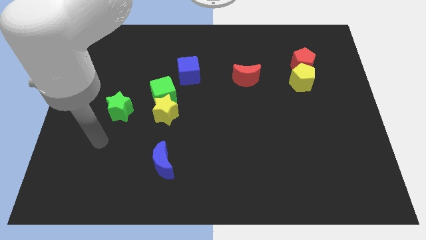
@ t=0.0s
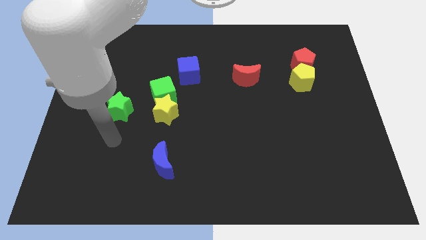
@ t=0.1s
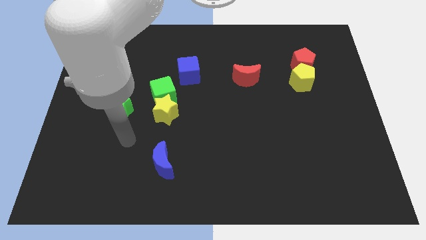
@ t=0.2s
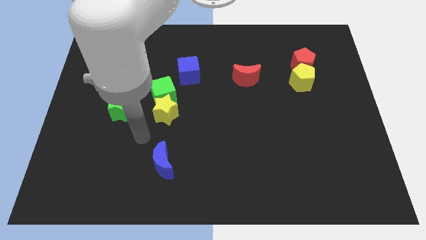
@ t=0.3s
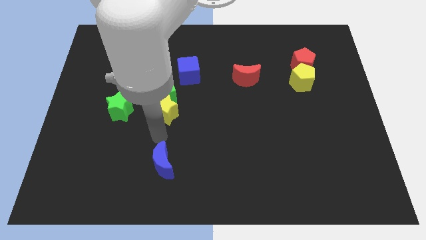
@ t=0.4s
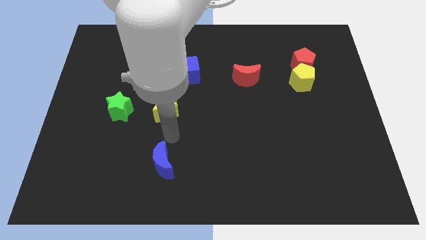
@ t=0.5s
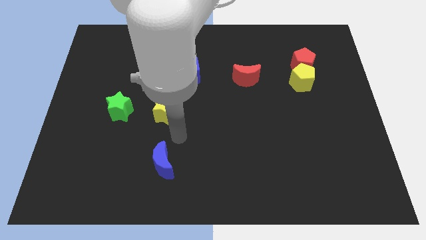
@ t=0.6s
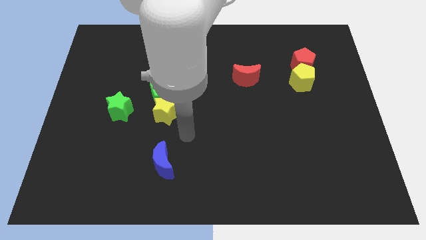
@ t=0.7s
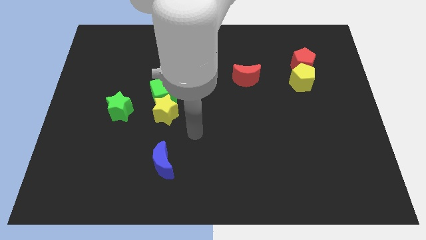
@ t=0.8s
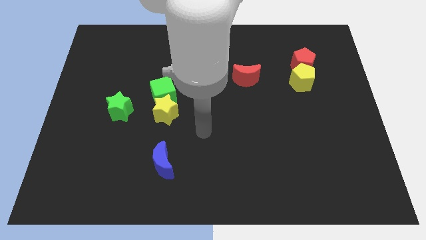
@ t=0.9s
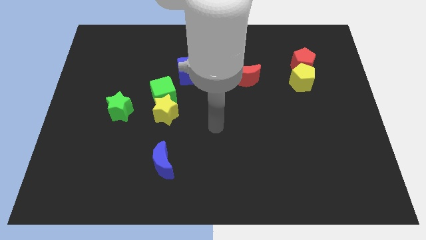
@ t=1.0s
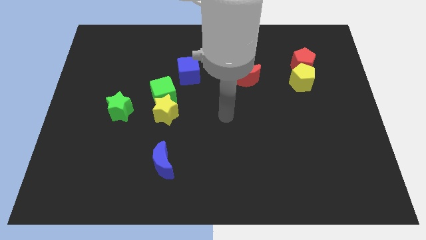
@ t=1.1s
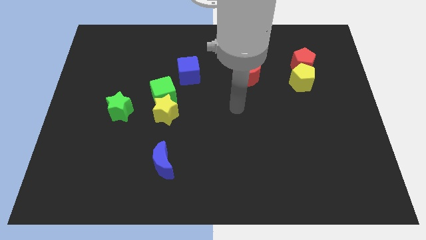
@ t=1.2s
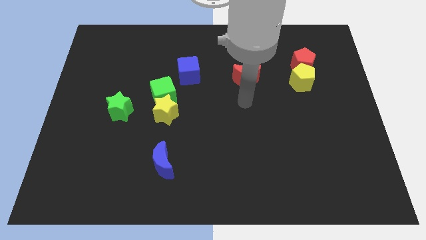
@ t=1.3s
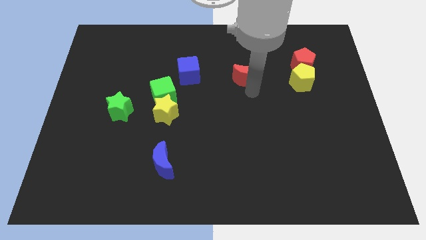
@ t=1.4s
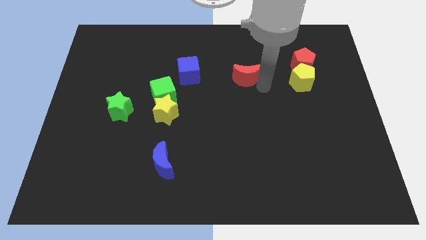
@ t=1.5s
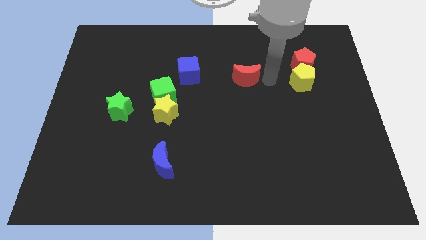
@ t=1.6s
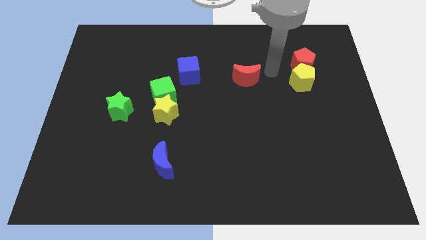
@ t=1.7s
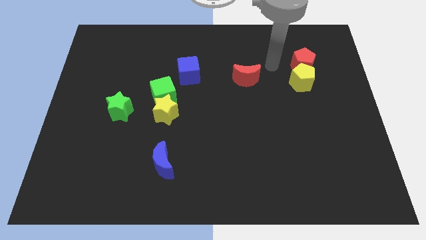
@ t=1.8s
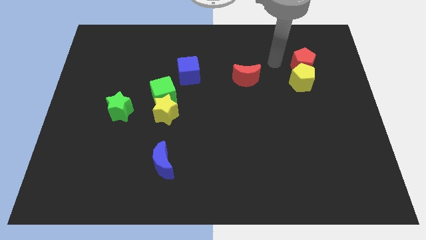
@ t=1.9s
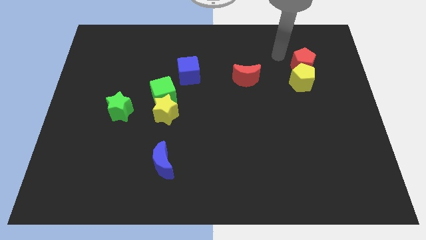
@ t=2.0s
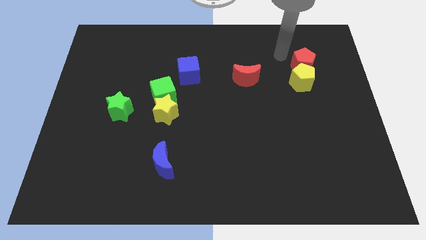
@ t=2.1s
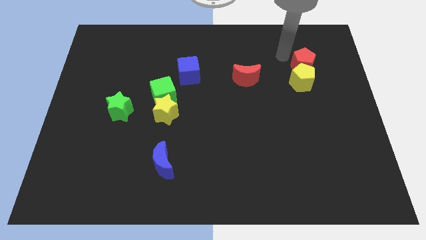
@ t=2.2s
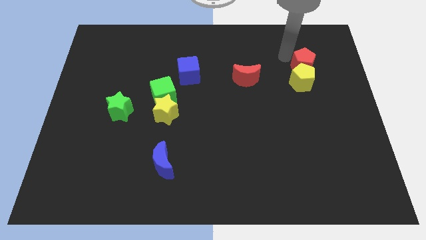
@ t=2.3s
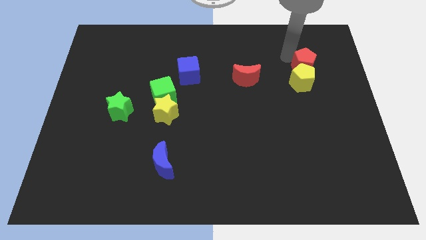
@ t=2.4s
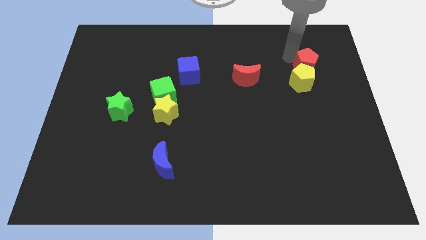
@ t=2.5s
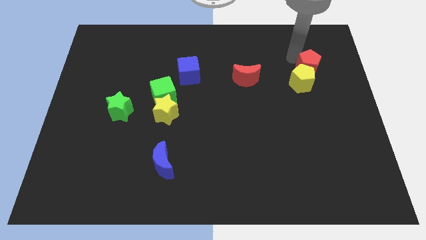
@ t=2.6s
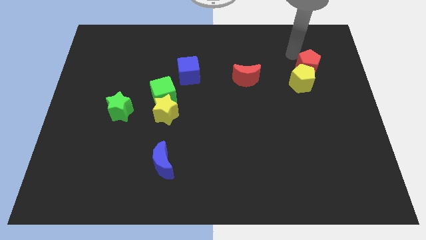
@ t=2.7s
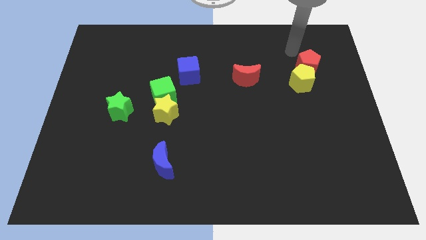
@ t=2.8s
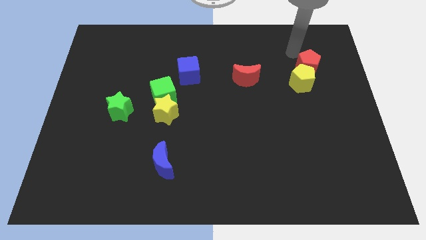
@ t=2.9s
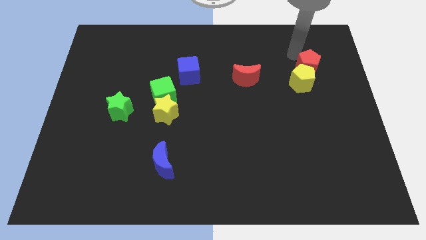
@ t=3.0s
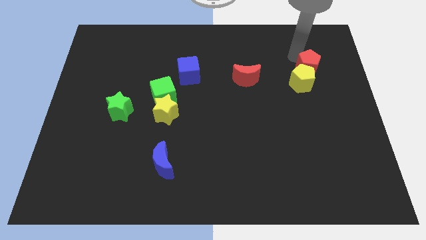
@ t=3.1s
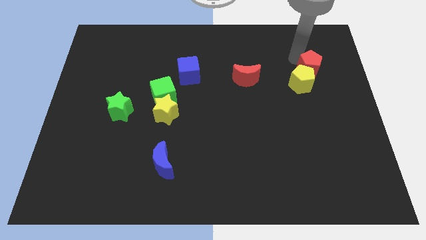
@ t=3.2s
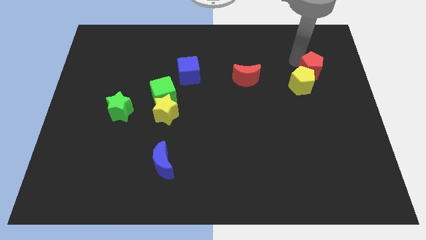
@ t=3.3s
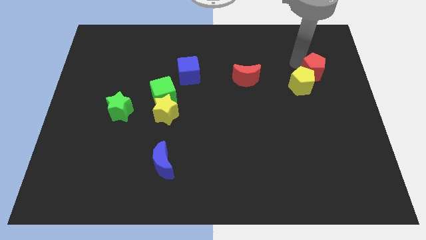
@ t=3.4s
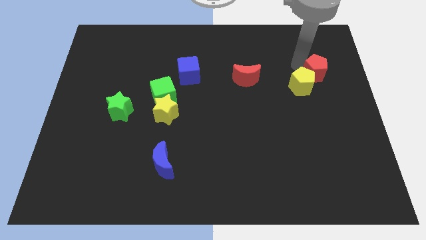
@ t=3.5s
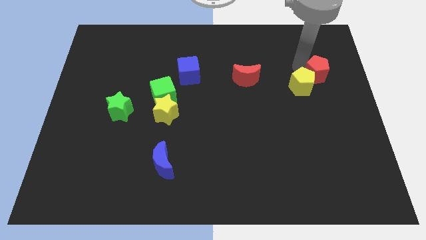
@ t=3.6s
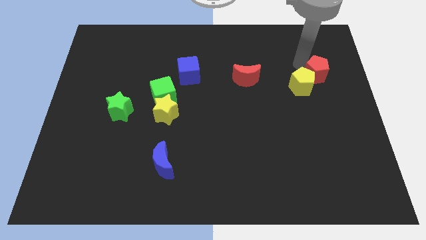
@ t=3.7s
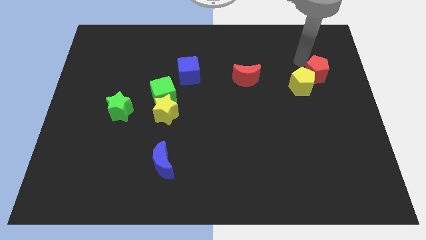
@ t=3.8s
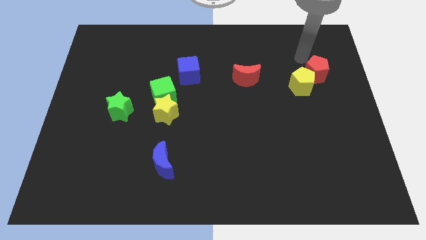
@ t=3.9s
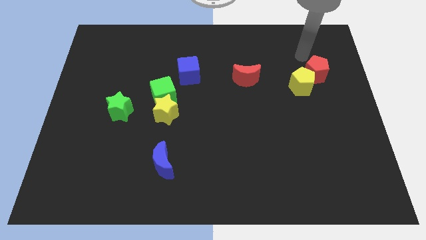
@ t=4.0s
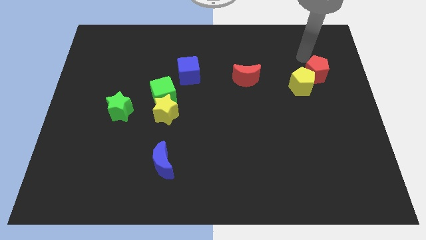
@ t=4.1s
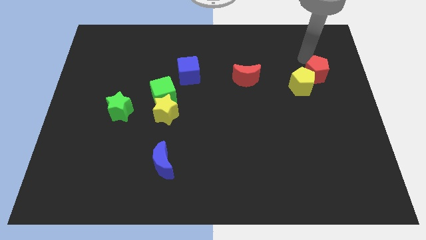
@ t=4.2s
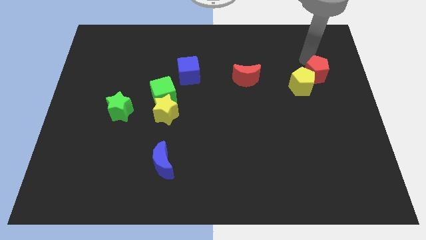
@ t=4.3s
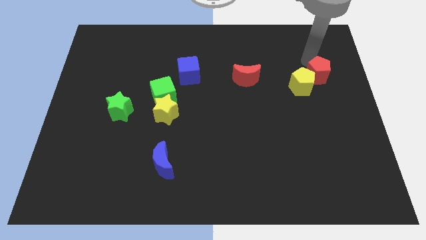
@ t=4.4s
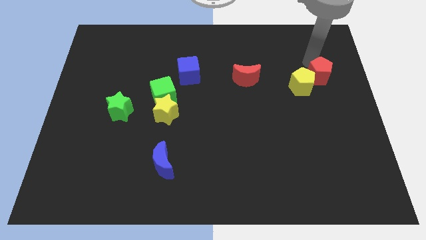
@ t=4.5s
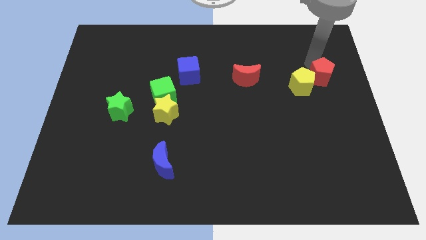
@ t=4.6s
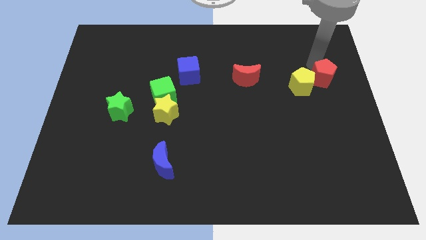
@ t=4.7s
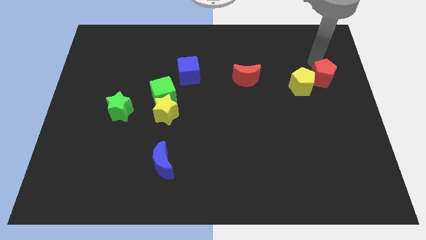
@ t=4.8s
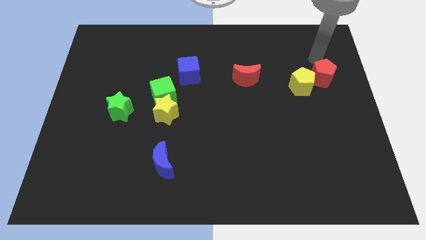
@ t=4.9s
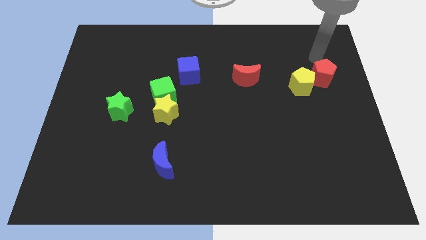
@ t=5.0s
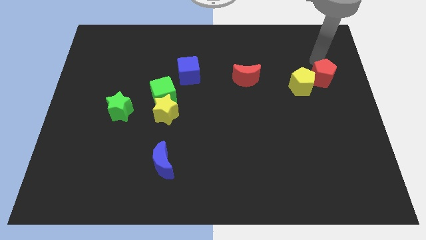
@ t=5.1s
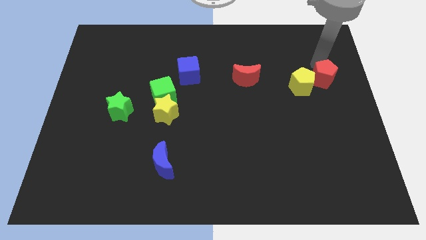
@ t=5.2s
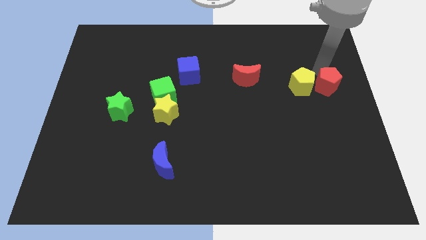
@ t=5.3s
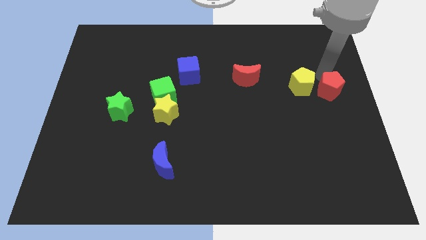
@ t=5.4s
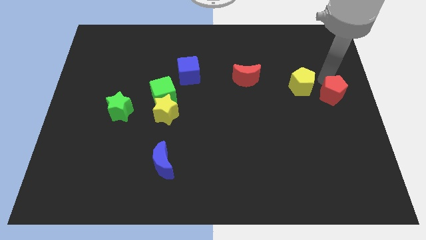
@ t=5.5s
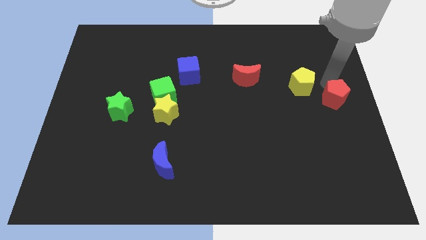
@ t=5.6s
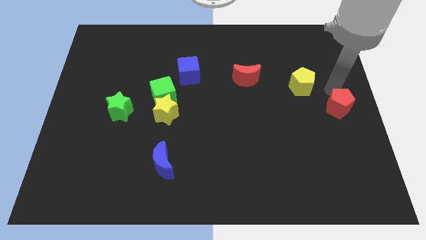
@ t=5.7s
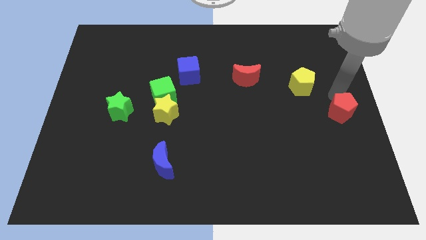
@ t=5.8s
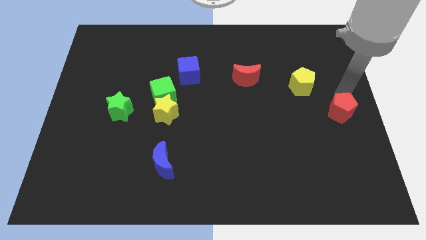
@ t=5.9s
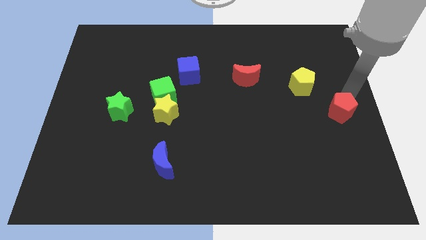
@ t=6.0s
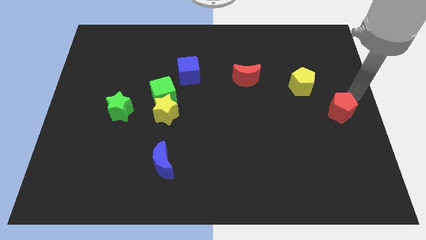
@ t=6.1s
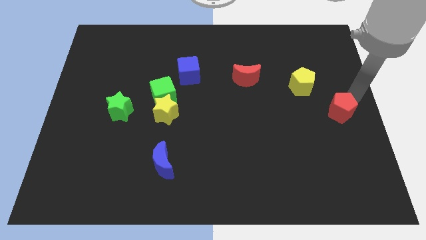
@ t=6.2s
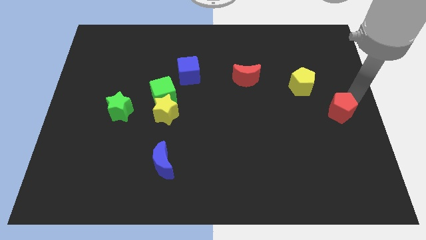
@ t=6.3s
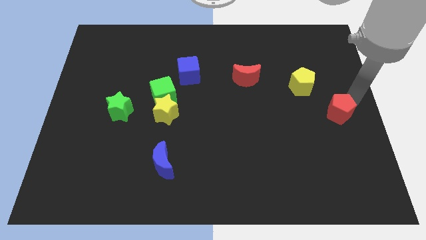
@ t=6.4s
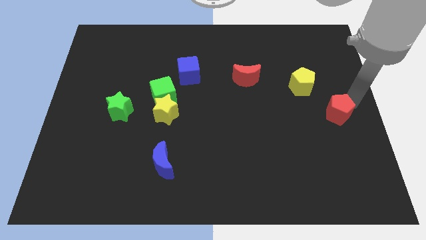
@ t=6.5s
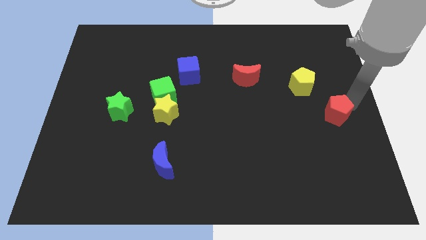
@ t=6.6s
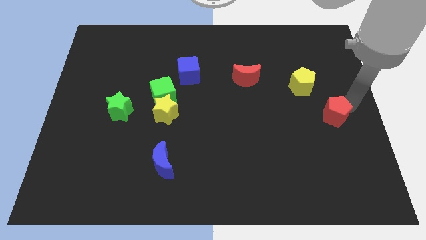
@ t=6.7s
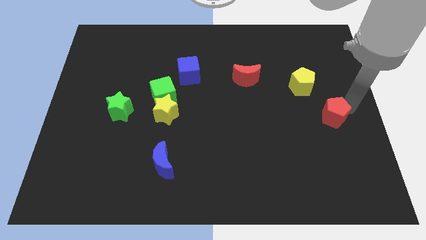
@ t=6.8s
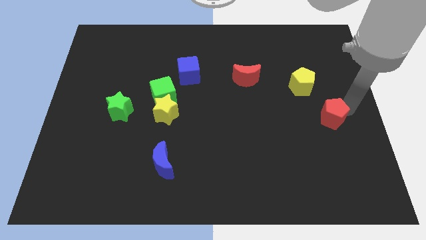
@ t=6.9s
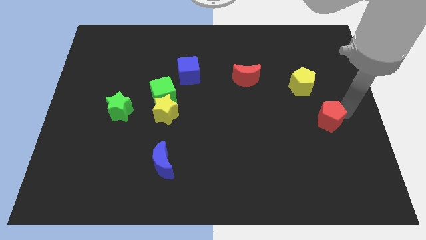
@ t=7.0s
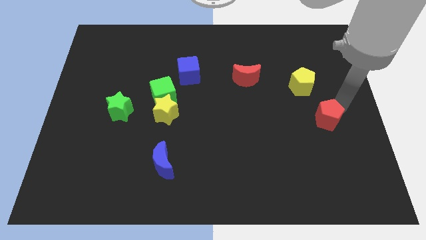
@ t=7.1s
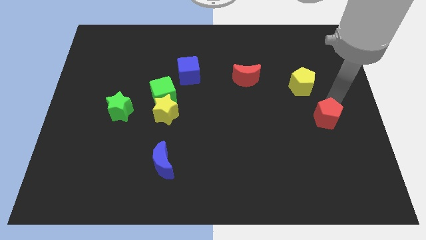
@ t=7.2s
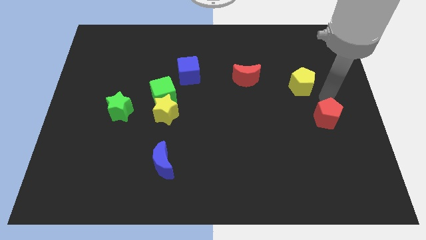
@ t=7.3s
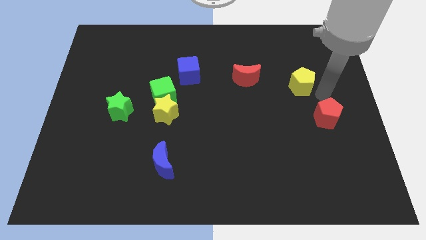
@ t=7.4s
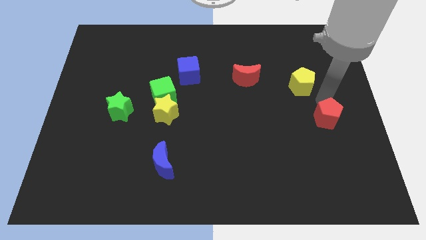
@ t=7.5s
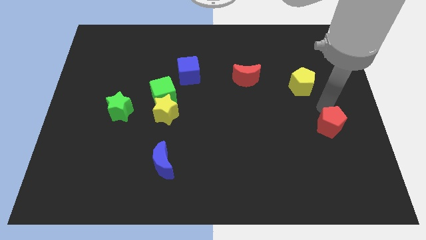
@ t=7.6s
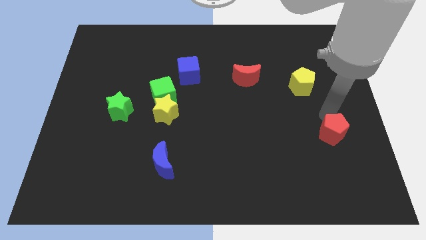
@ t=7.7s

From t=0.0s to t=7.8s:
slide the red pentagon downwards

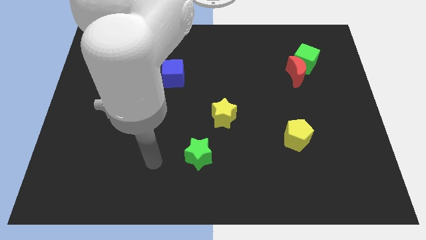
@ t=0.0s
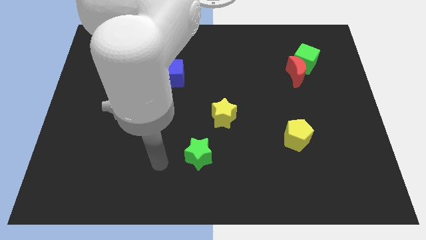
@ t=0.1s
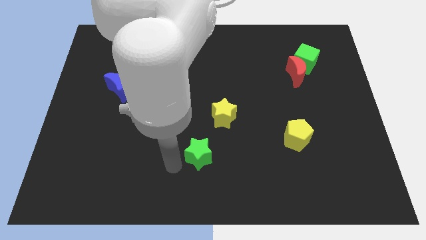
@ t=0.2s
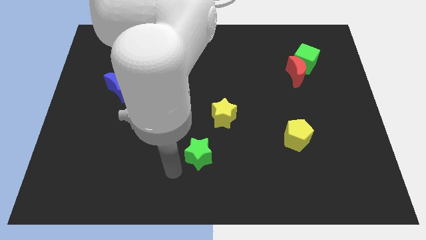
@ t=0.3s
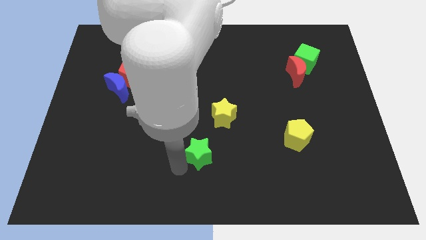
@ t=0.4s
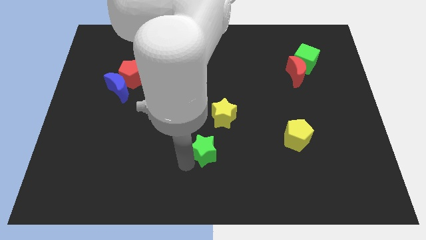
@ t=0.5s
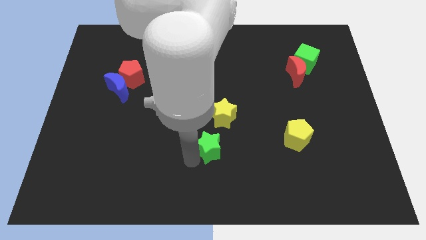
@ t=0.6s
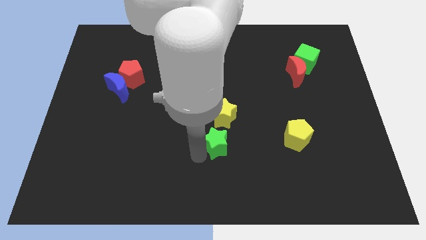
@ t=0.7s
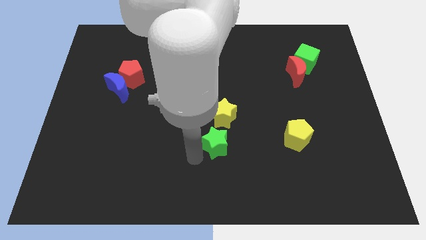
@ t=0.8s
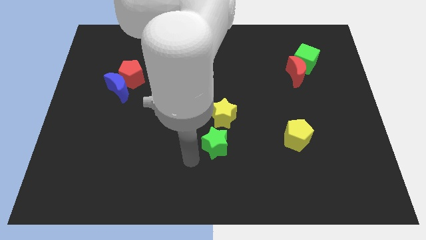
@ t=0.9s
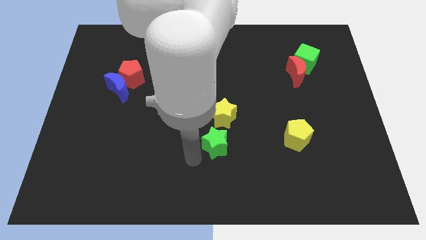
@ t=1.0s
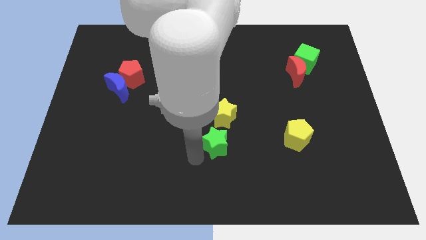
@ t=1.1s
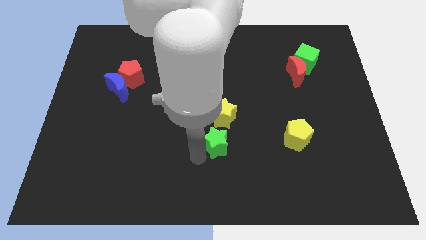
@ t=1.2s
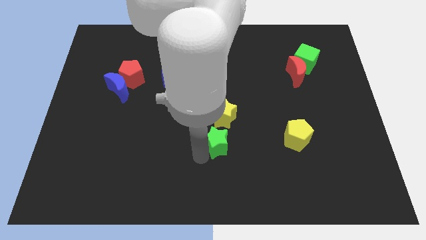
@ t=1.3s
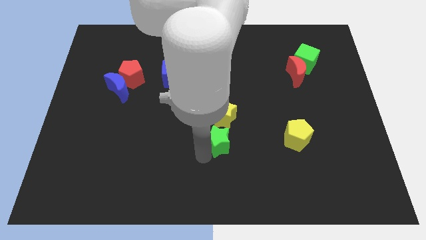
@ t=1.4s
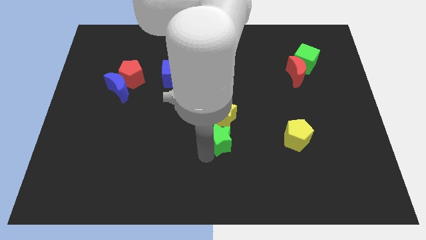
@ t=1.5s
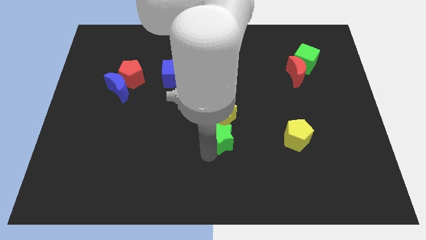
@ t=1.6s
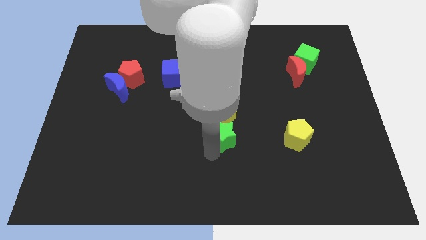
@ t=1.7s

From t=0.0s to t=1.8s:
push the green star up and to the right a little bit
